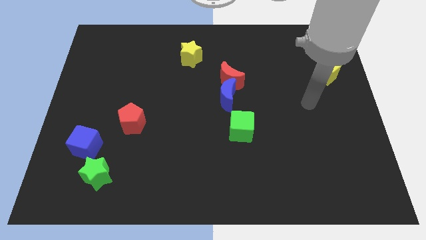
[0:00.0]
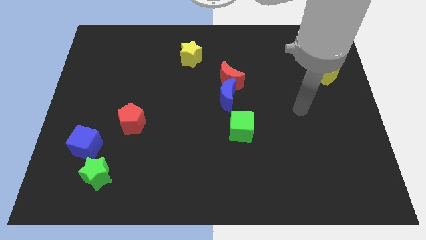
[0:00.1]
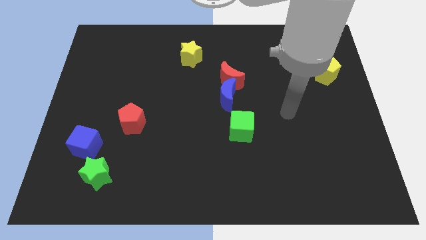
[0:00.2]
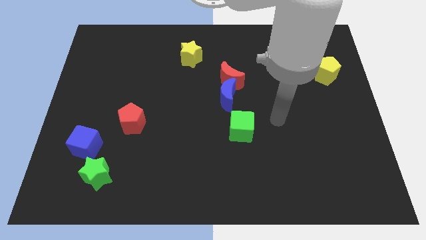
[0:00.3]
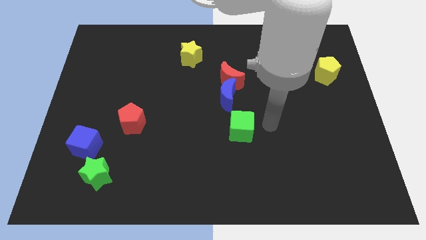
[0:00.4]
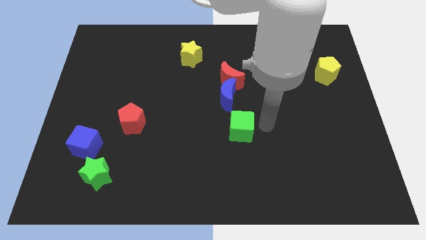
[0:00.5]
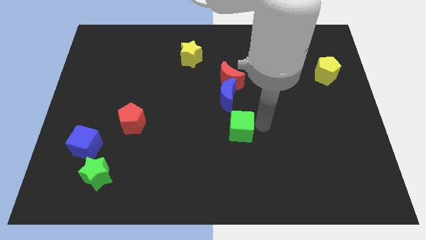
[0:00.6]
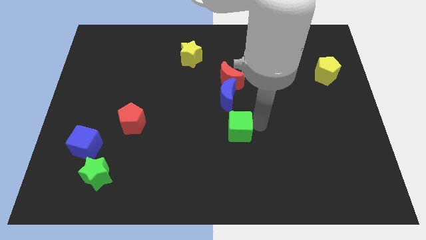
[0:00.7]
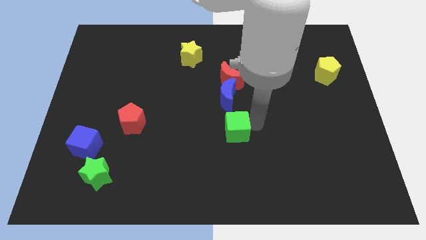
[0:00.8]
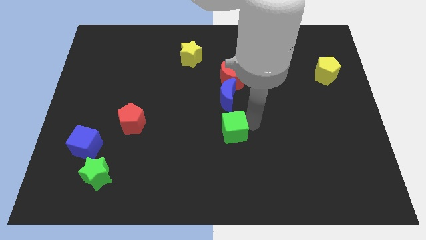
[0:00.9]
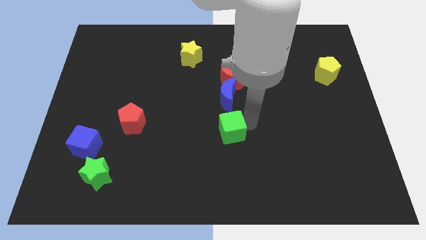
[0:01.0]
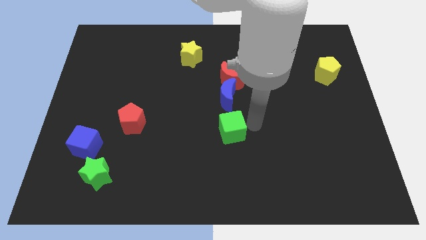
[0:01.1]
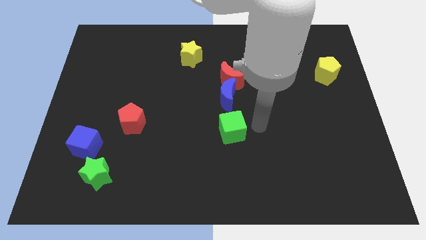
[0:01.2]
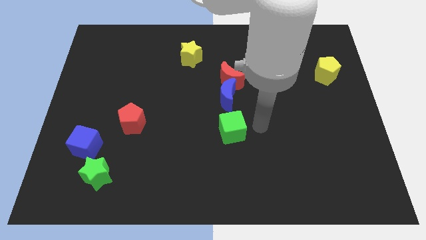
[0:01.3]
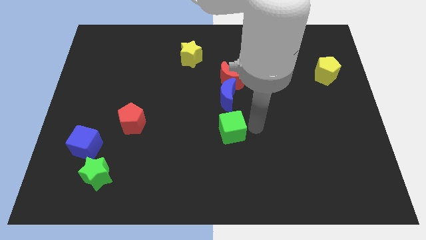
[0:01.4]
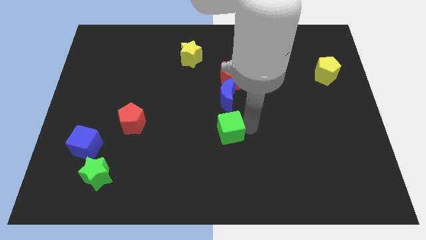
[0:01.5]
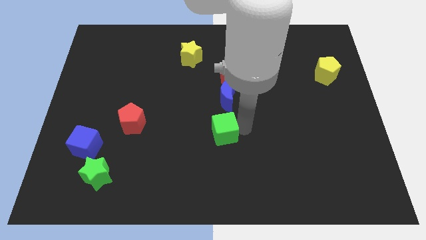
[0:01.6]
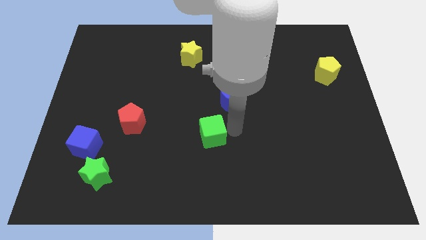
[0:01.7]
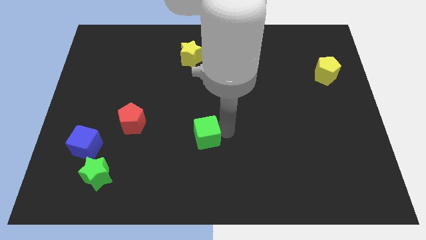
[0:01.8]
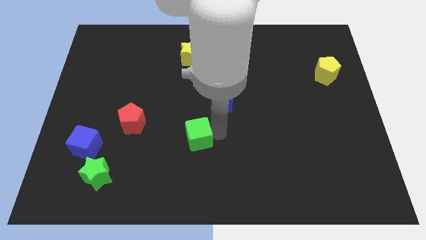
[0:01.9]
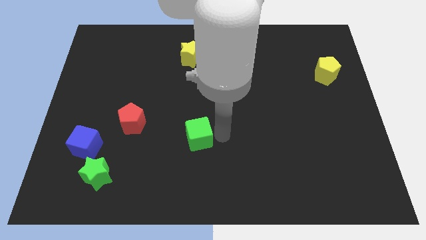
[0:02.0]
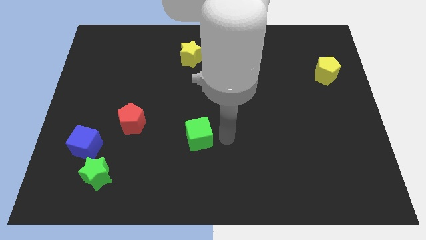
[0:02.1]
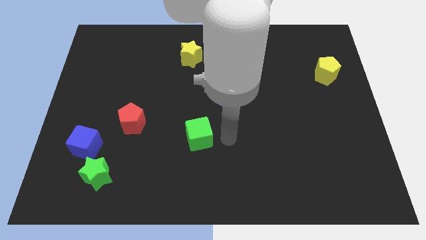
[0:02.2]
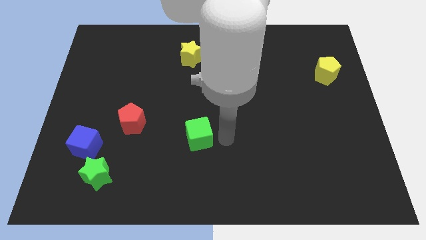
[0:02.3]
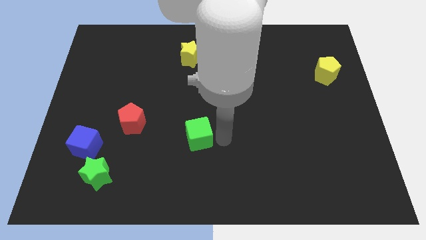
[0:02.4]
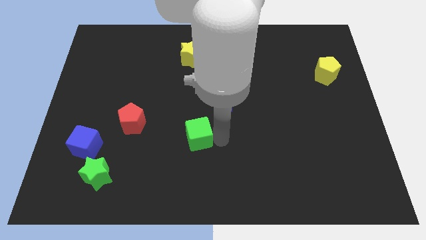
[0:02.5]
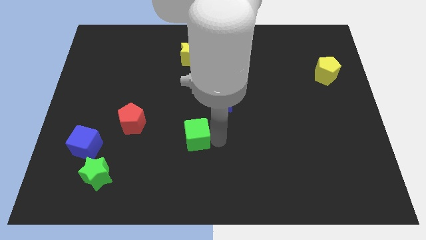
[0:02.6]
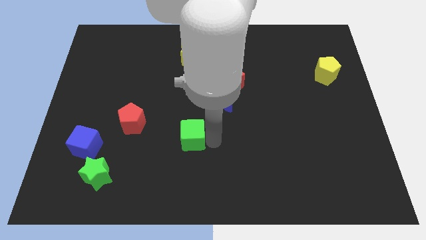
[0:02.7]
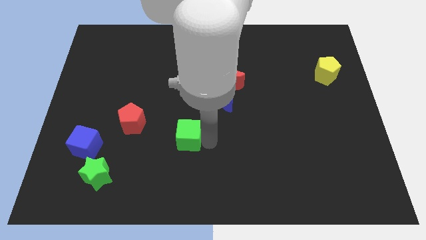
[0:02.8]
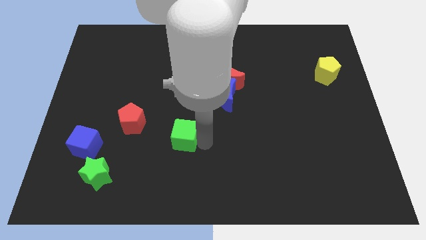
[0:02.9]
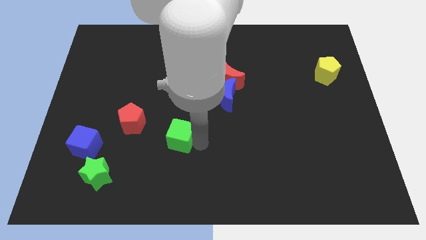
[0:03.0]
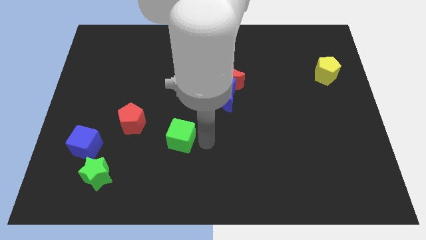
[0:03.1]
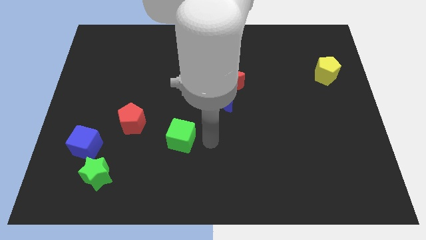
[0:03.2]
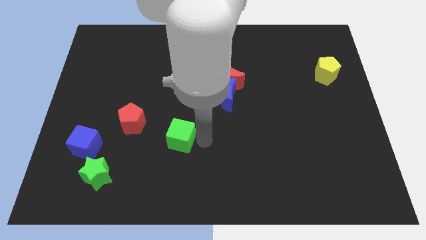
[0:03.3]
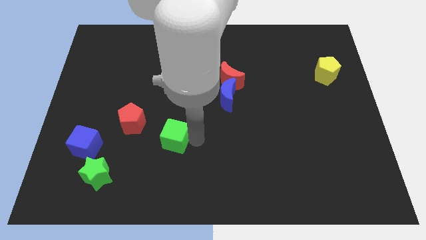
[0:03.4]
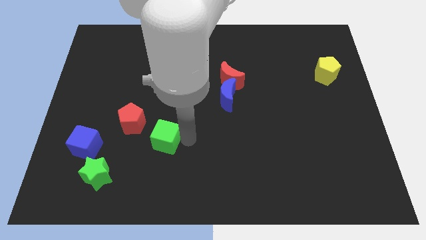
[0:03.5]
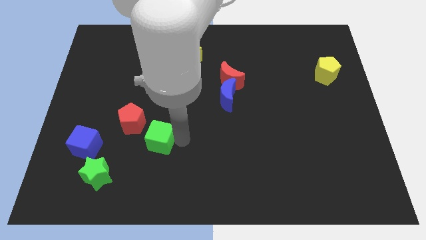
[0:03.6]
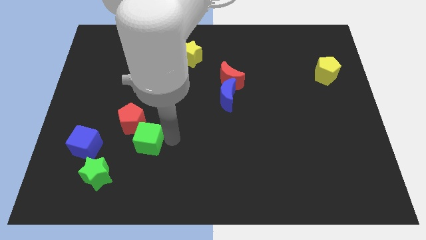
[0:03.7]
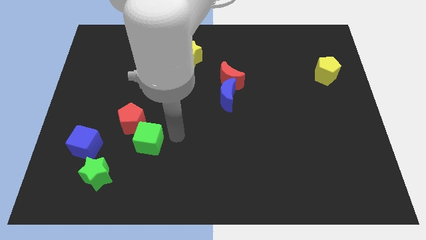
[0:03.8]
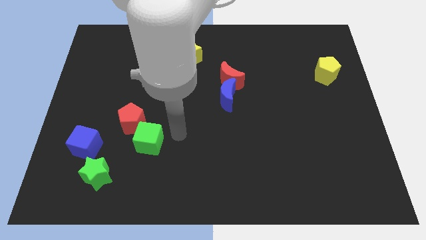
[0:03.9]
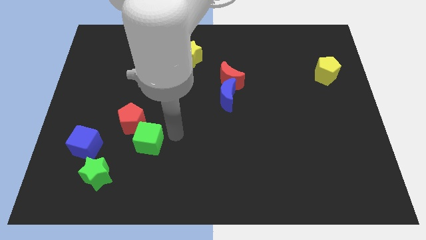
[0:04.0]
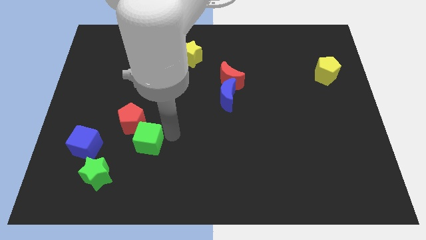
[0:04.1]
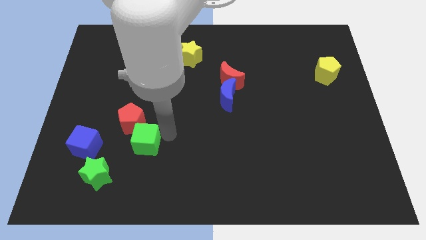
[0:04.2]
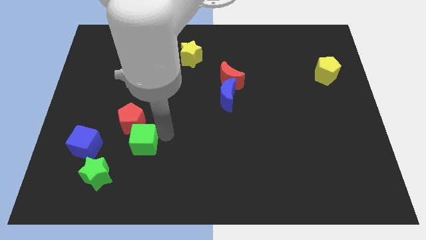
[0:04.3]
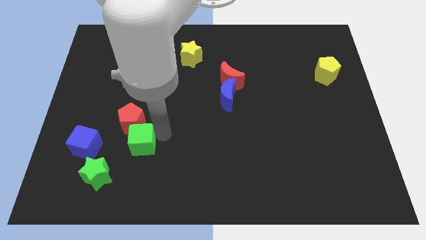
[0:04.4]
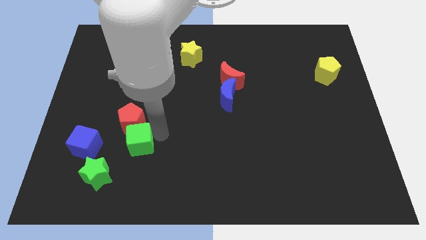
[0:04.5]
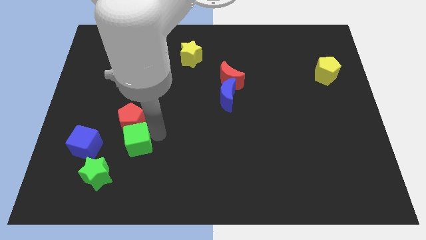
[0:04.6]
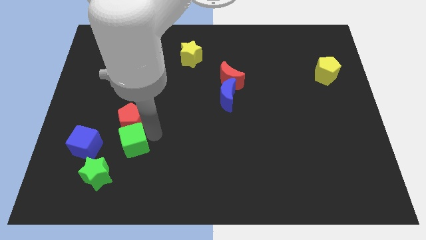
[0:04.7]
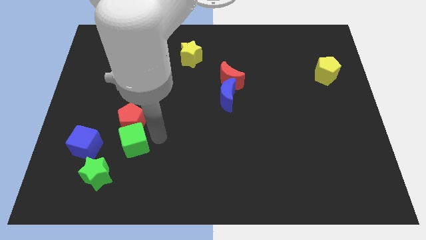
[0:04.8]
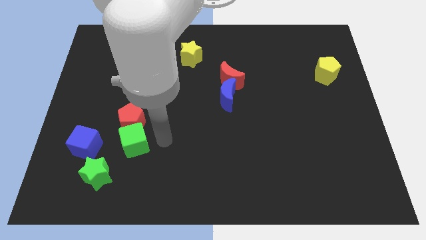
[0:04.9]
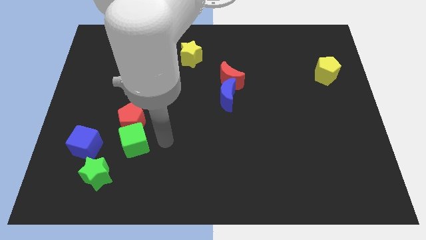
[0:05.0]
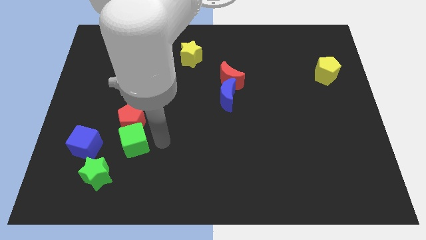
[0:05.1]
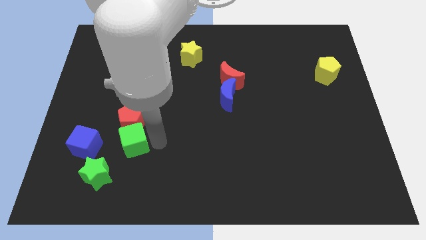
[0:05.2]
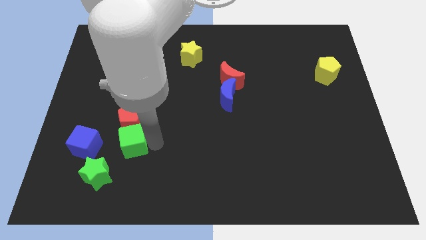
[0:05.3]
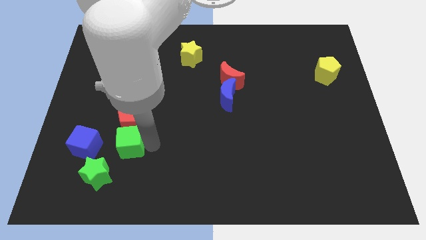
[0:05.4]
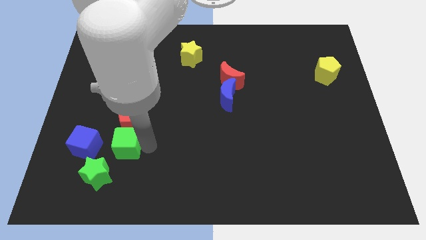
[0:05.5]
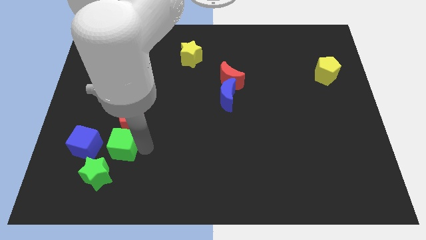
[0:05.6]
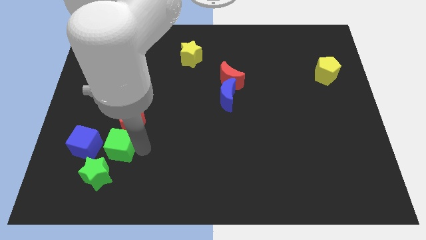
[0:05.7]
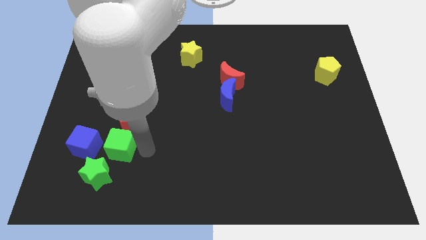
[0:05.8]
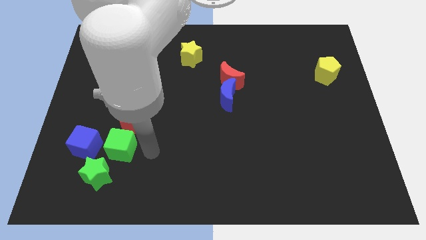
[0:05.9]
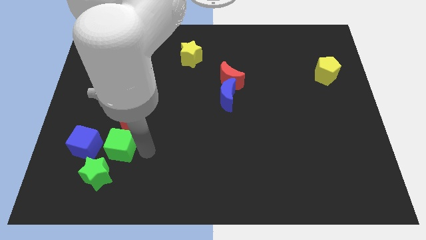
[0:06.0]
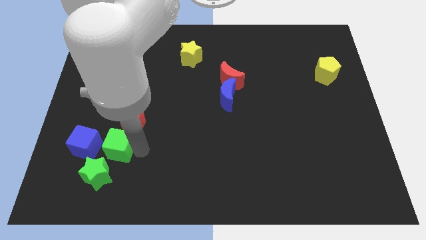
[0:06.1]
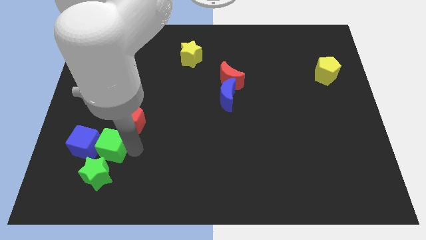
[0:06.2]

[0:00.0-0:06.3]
put the green cube close to the blue cube
